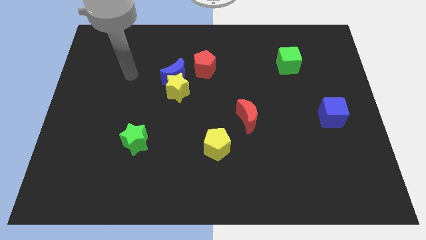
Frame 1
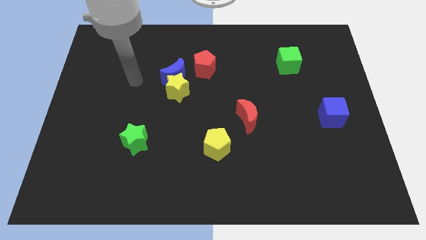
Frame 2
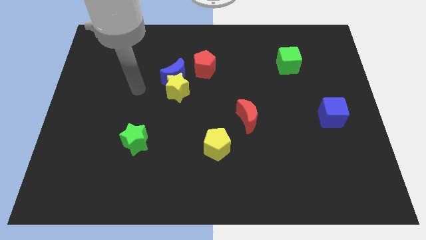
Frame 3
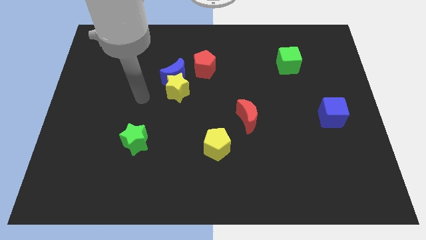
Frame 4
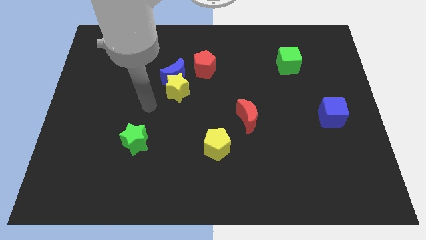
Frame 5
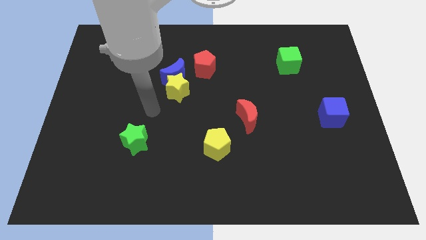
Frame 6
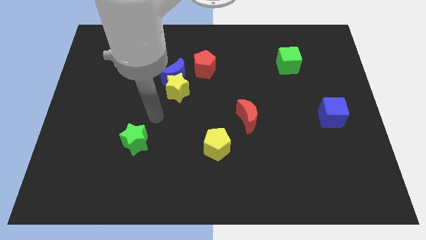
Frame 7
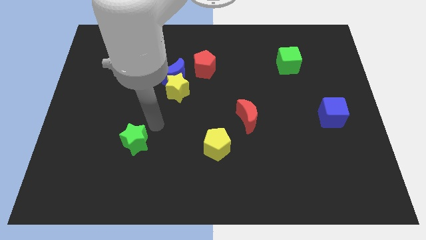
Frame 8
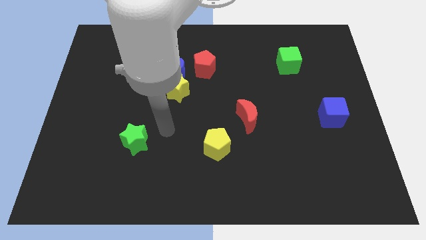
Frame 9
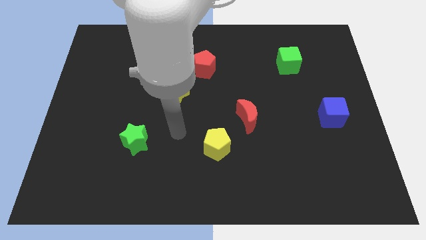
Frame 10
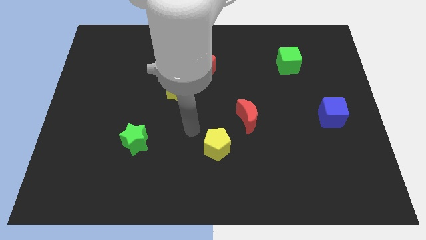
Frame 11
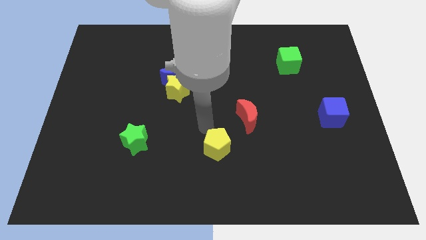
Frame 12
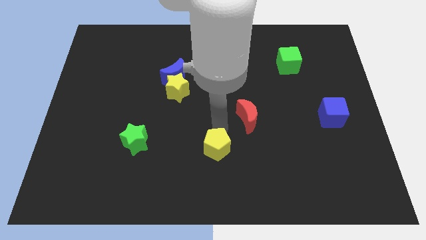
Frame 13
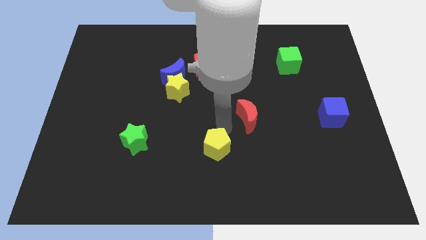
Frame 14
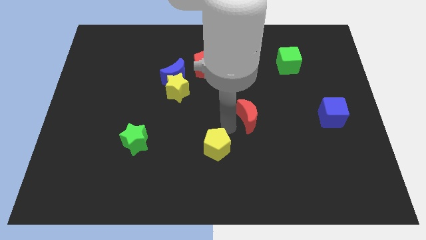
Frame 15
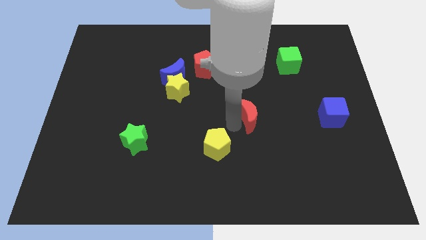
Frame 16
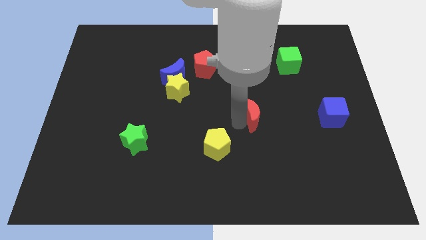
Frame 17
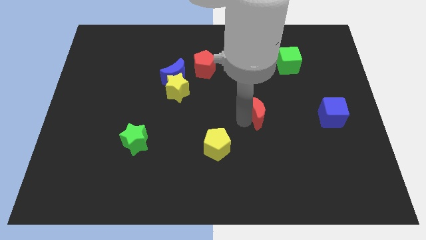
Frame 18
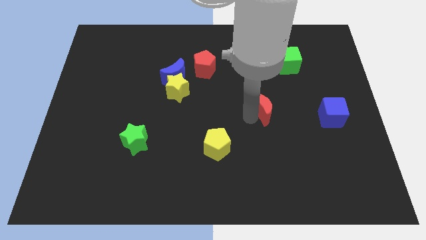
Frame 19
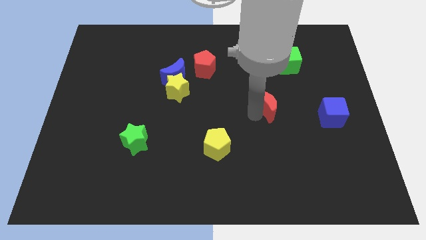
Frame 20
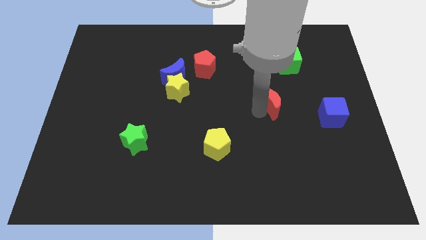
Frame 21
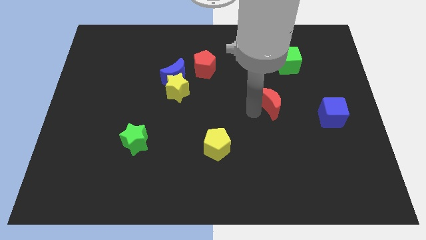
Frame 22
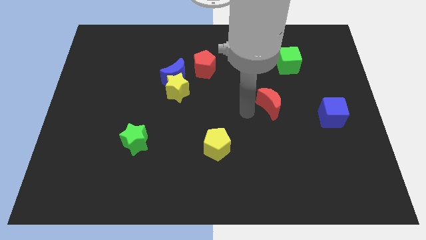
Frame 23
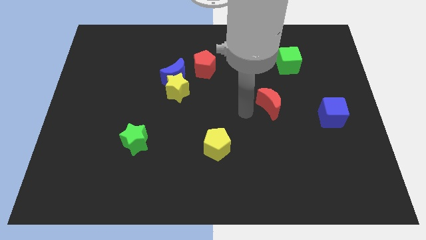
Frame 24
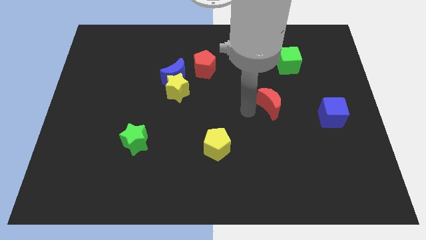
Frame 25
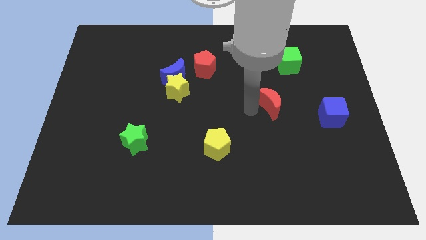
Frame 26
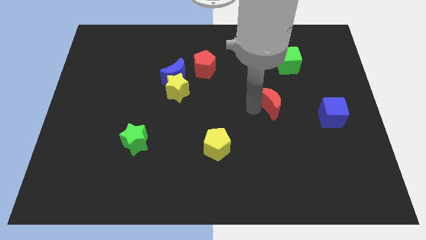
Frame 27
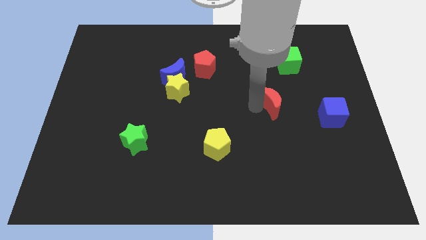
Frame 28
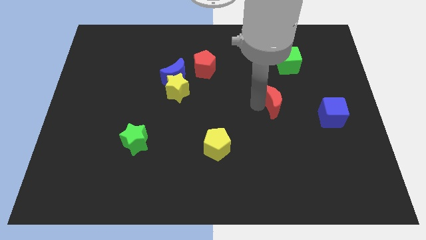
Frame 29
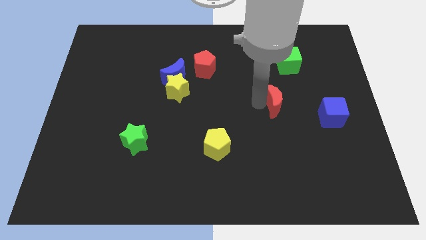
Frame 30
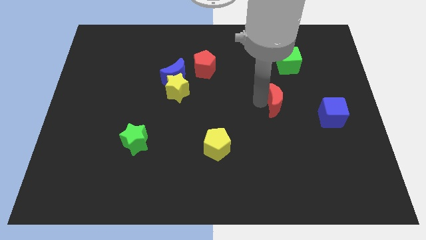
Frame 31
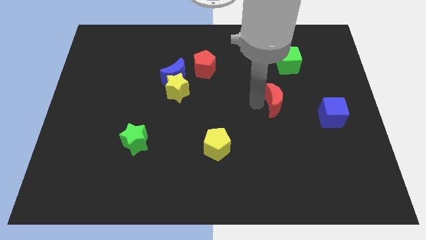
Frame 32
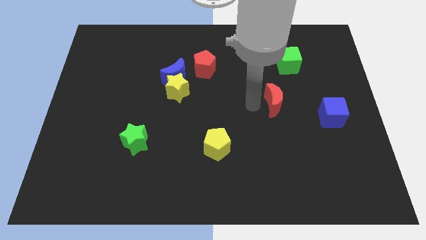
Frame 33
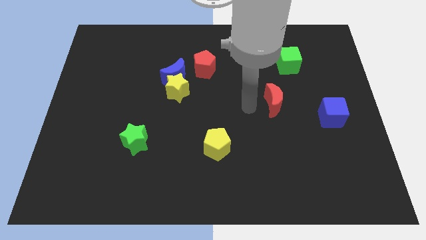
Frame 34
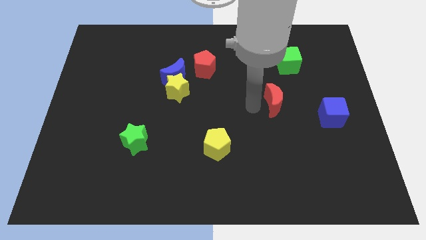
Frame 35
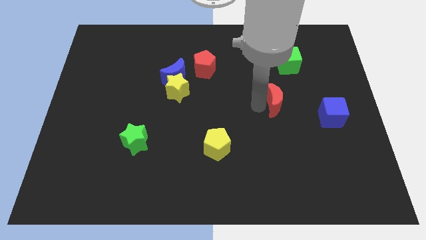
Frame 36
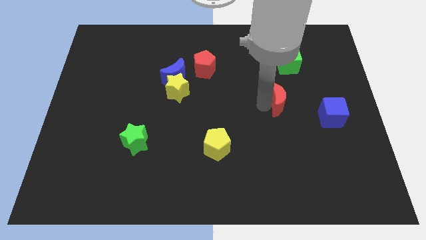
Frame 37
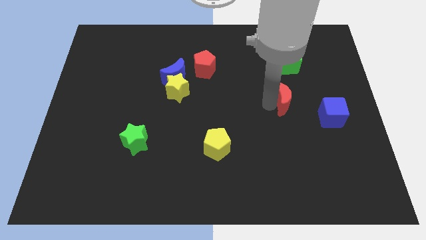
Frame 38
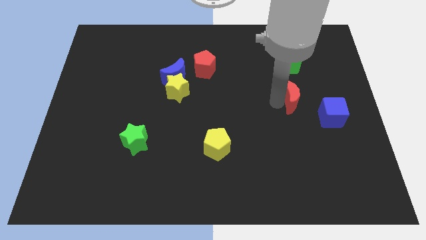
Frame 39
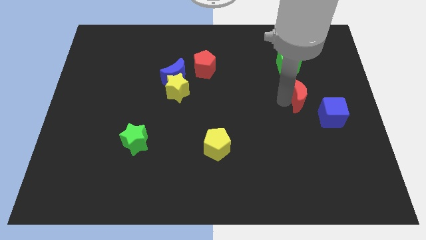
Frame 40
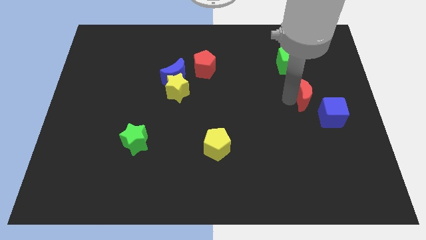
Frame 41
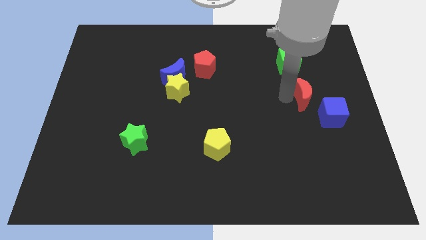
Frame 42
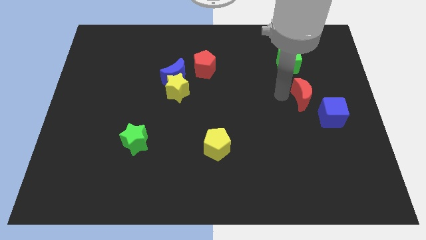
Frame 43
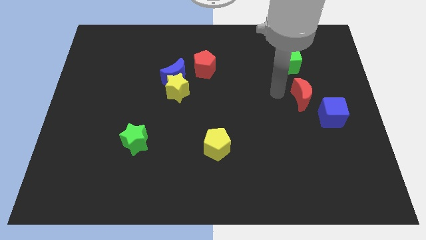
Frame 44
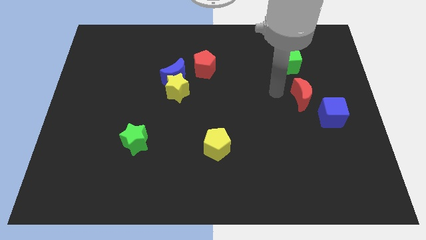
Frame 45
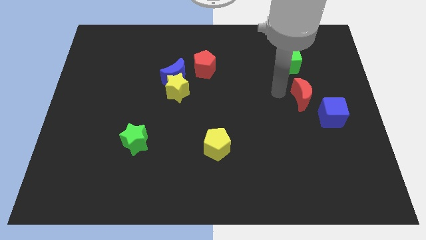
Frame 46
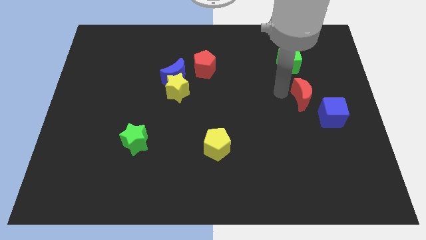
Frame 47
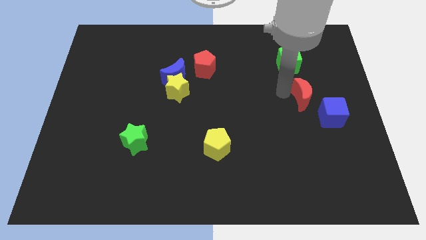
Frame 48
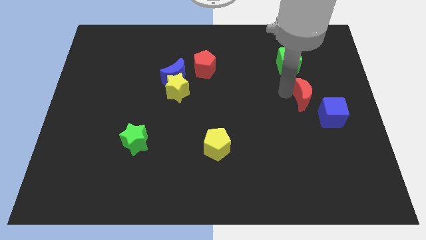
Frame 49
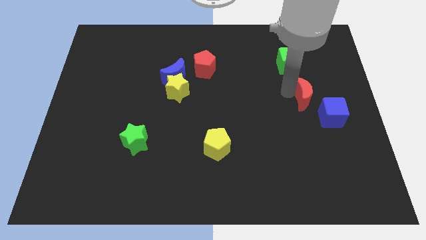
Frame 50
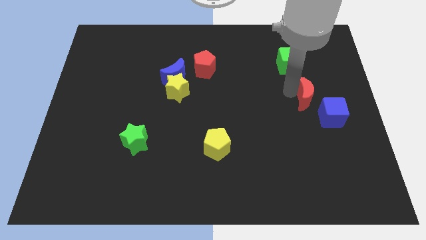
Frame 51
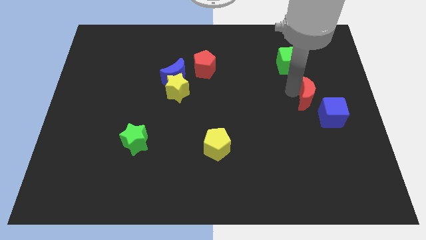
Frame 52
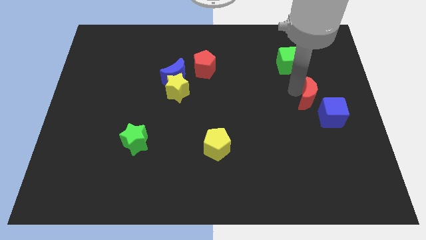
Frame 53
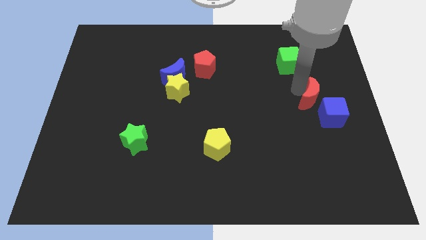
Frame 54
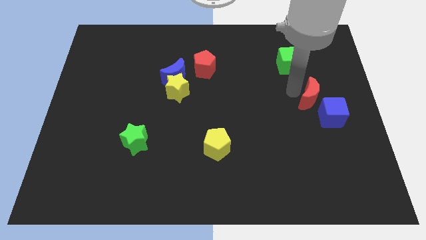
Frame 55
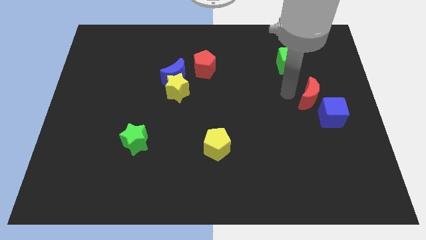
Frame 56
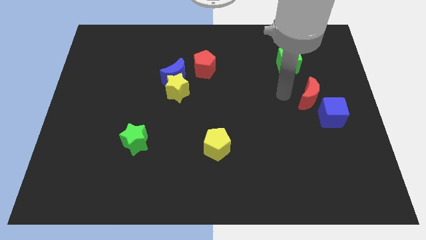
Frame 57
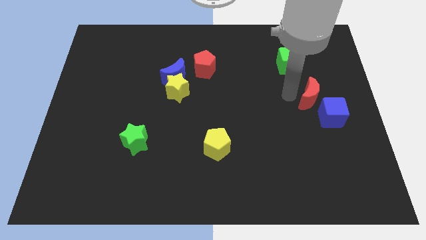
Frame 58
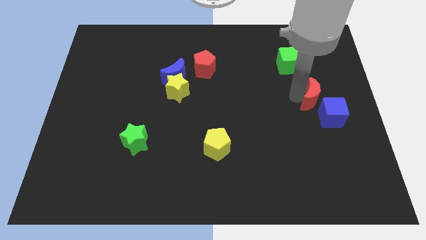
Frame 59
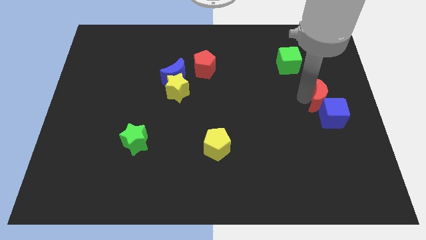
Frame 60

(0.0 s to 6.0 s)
slide the red moon to the right side

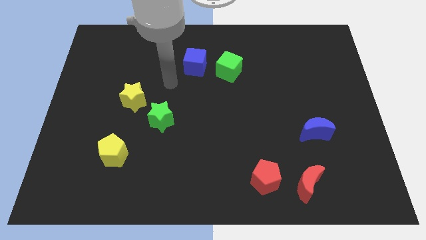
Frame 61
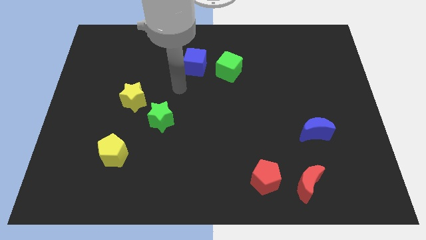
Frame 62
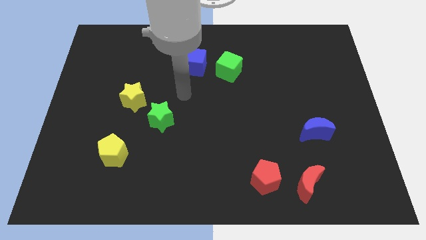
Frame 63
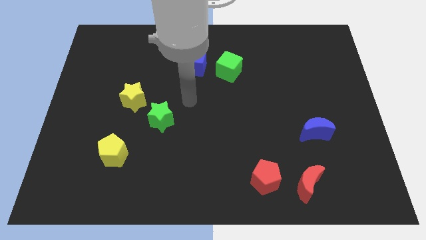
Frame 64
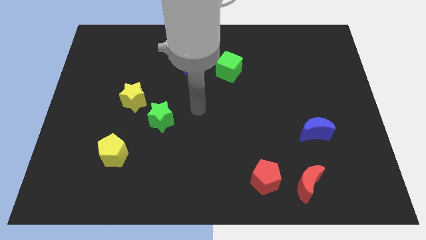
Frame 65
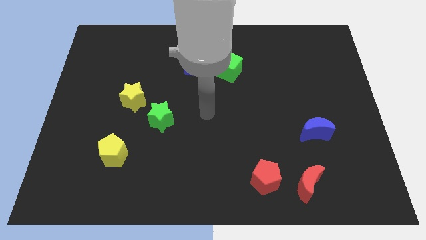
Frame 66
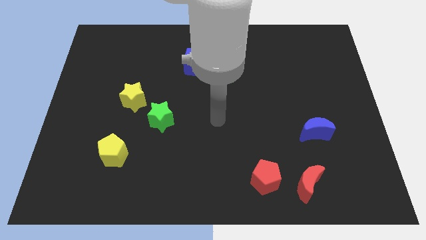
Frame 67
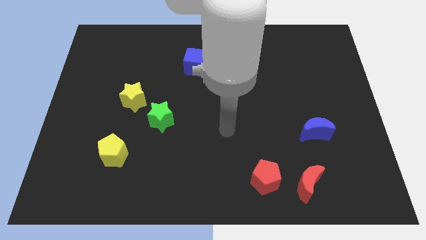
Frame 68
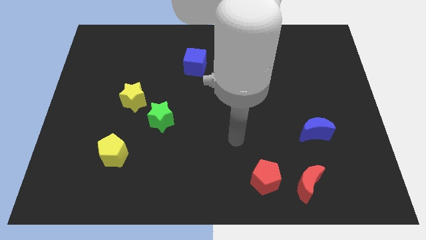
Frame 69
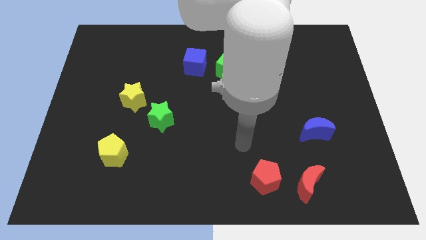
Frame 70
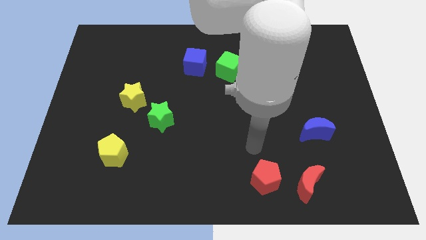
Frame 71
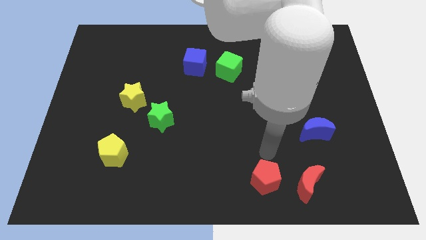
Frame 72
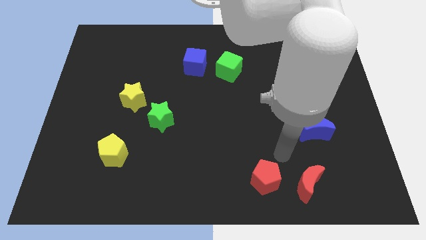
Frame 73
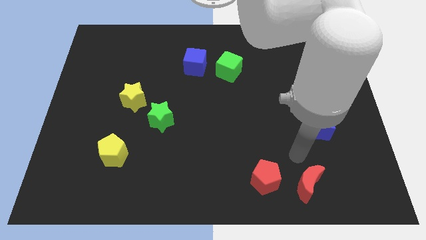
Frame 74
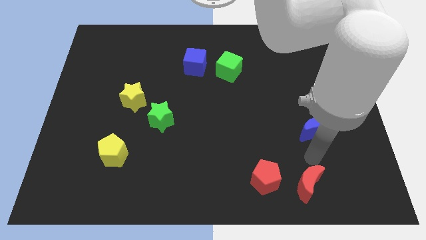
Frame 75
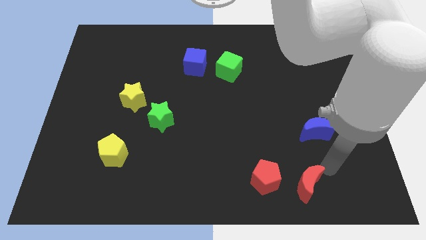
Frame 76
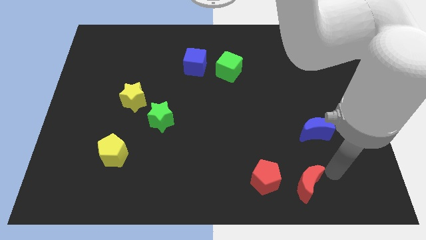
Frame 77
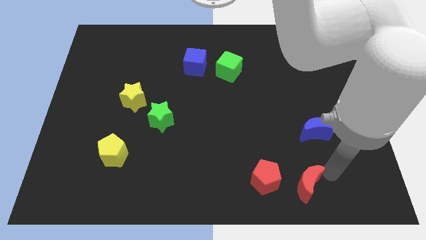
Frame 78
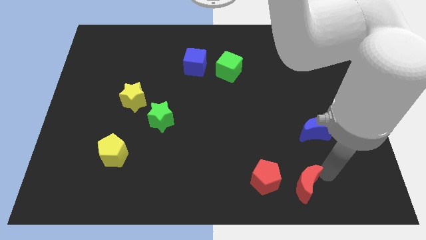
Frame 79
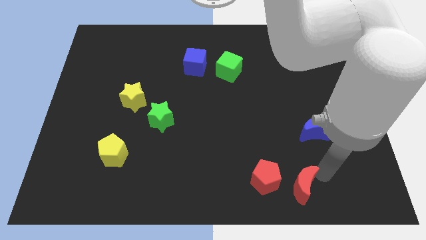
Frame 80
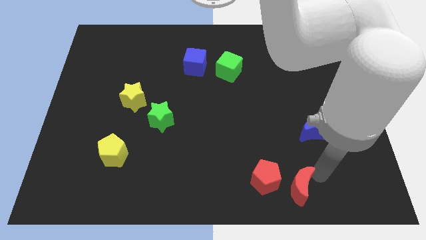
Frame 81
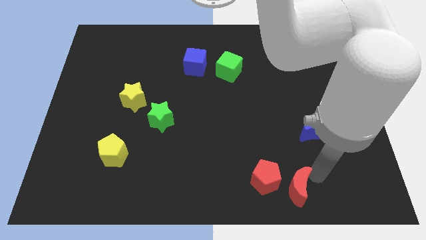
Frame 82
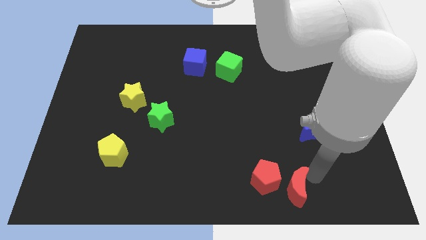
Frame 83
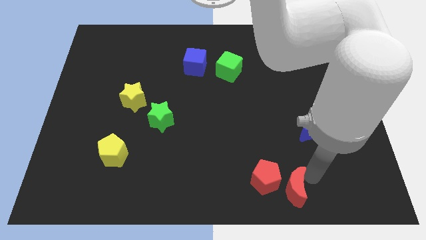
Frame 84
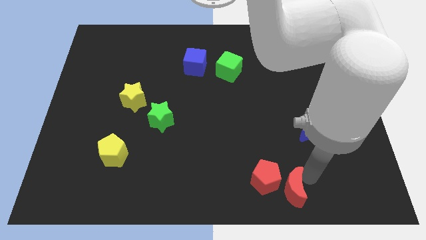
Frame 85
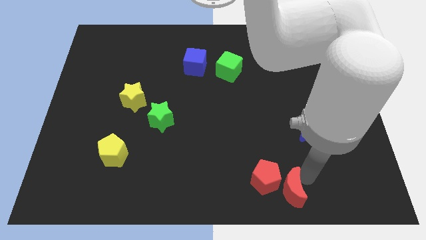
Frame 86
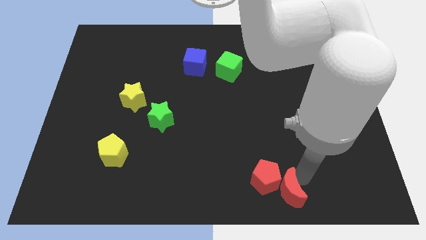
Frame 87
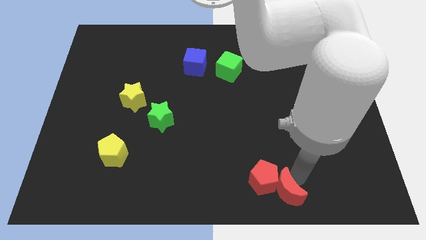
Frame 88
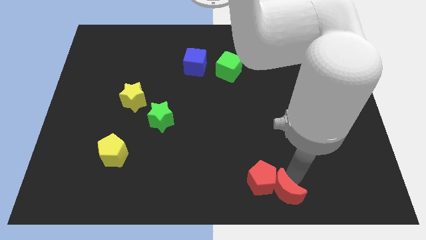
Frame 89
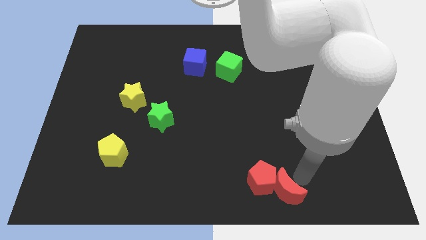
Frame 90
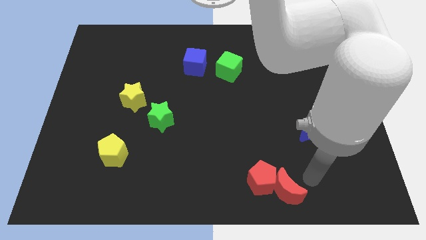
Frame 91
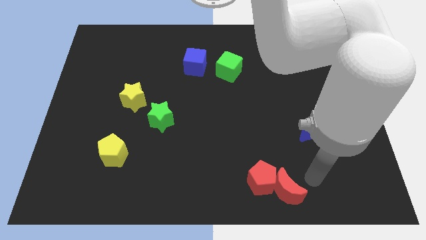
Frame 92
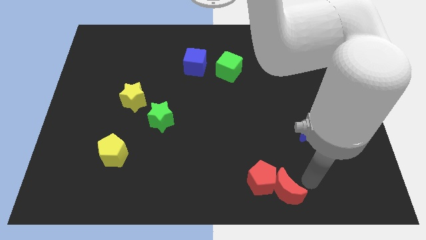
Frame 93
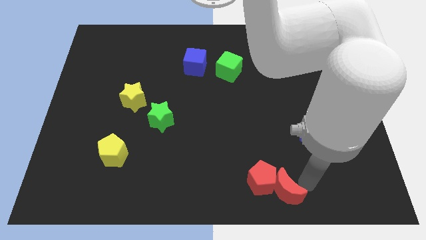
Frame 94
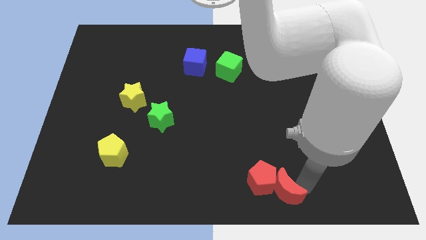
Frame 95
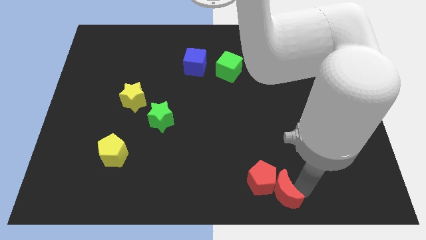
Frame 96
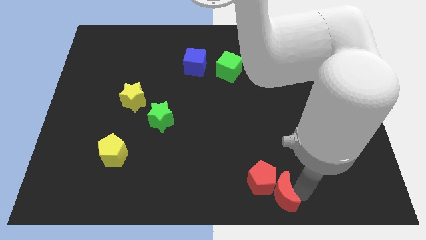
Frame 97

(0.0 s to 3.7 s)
push the red moon to the bottom
